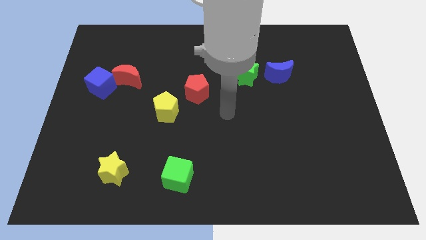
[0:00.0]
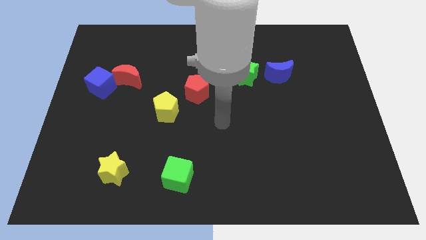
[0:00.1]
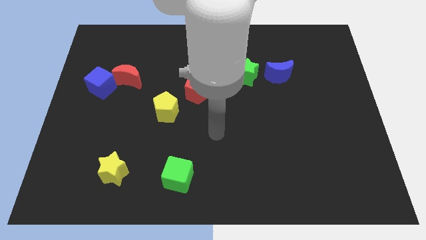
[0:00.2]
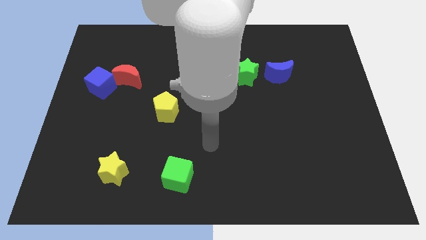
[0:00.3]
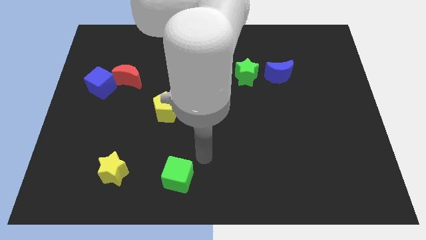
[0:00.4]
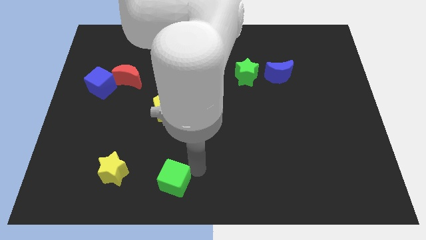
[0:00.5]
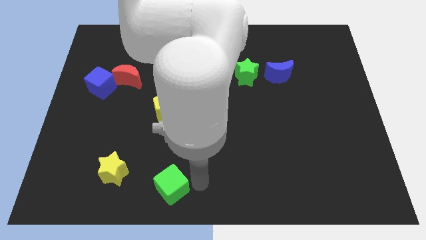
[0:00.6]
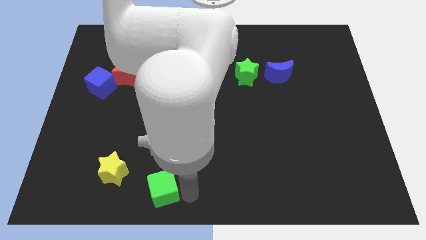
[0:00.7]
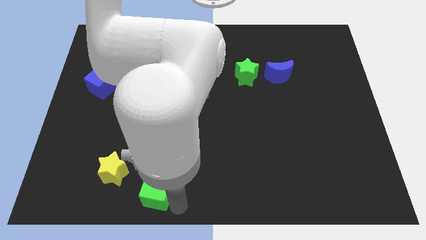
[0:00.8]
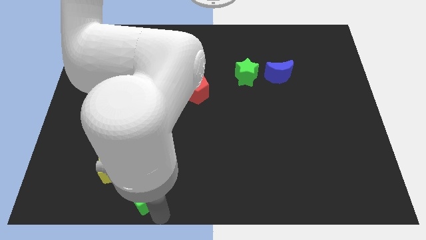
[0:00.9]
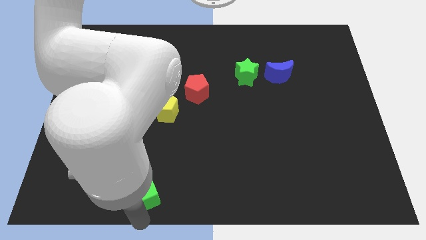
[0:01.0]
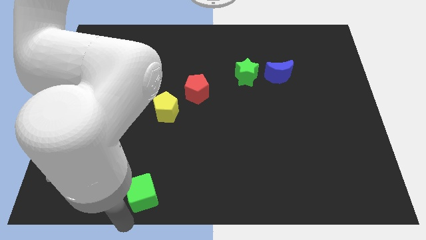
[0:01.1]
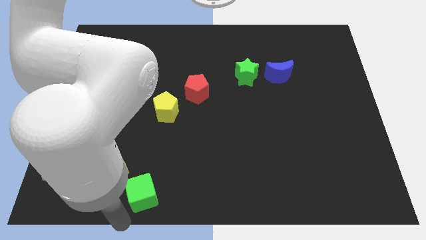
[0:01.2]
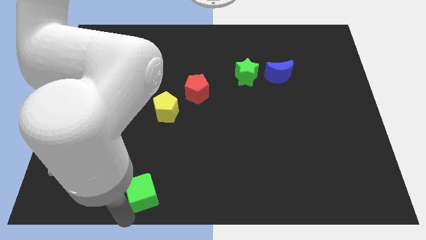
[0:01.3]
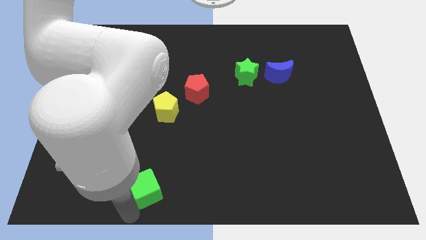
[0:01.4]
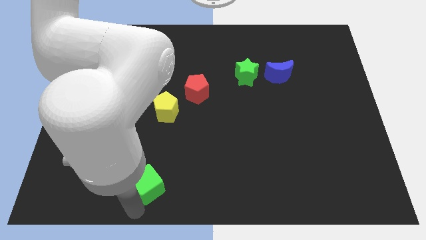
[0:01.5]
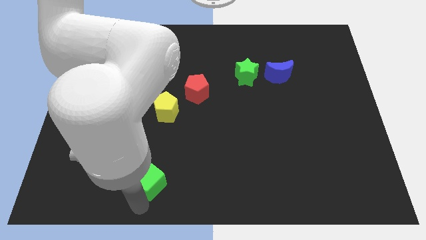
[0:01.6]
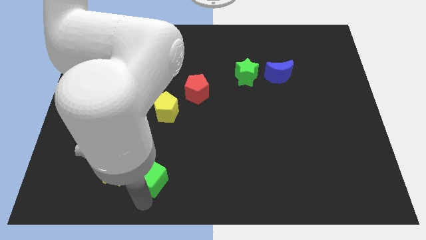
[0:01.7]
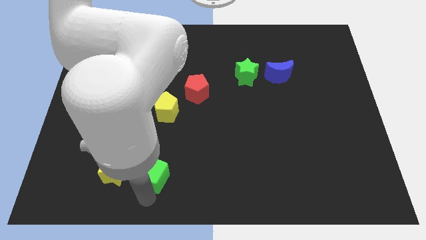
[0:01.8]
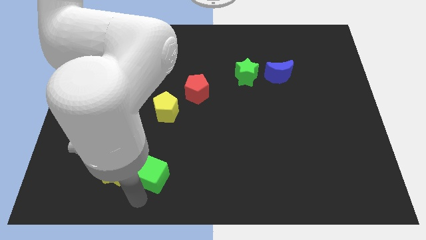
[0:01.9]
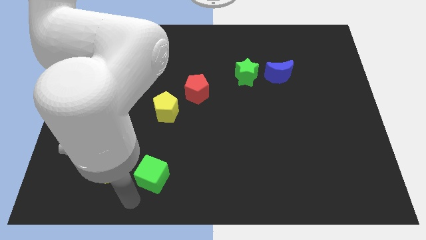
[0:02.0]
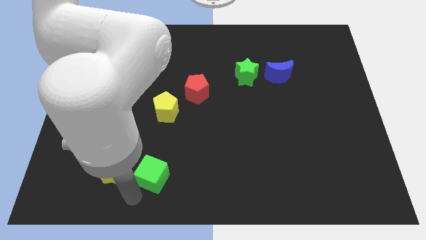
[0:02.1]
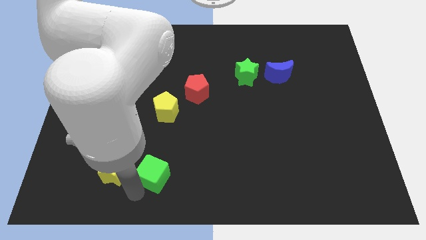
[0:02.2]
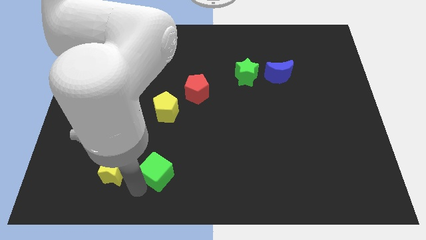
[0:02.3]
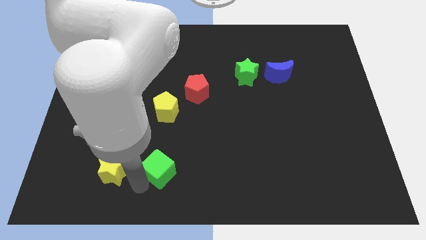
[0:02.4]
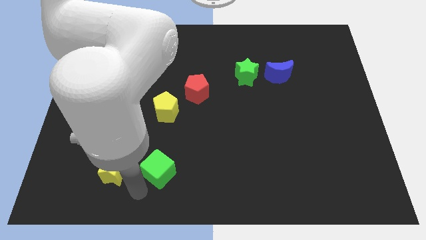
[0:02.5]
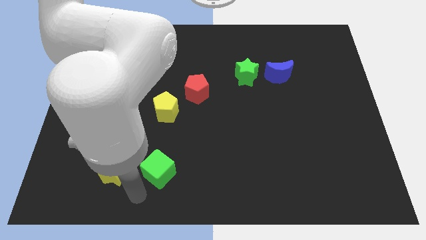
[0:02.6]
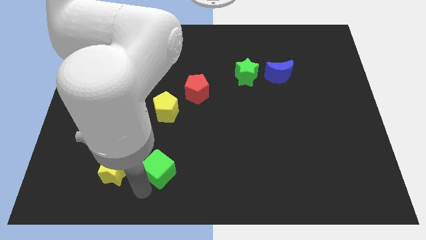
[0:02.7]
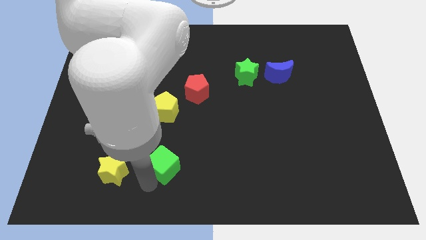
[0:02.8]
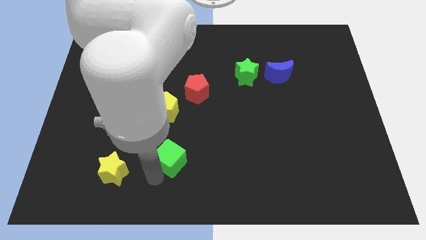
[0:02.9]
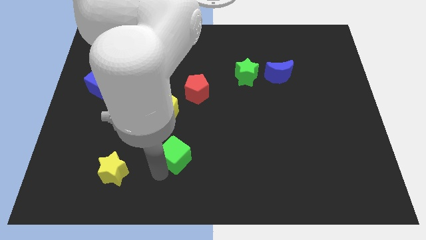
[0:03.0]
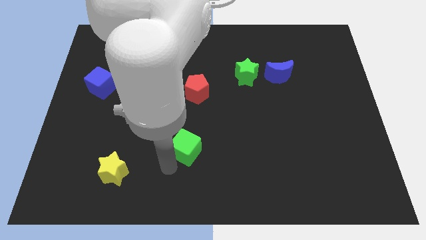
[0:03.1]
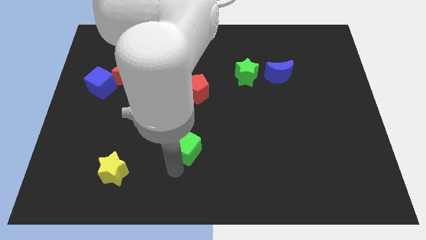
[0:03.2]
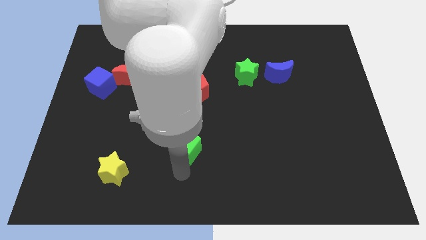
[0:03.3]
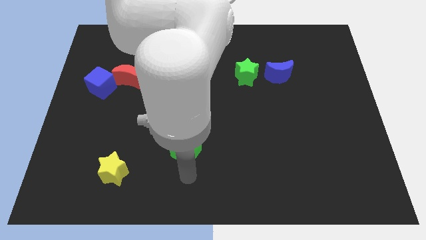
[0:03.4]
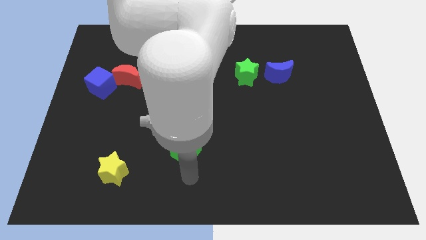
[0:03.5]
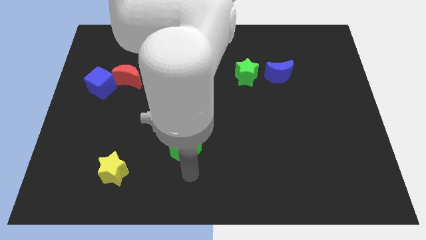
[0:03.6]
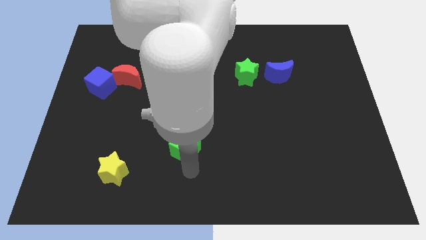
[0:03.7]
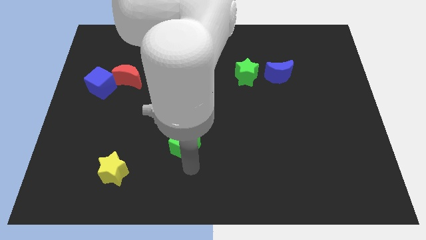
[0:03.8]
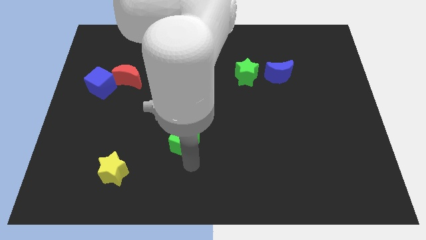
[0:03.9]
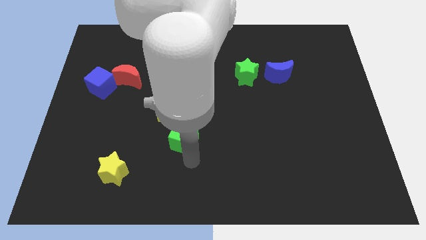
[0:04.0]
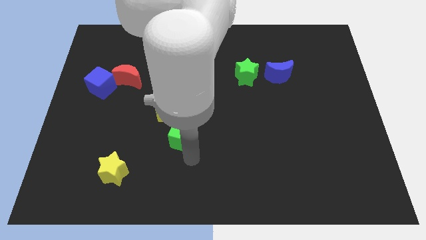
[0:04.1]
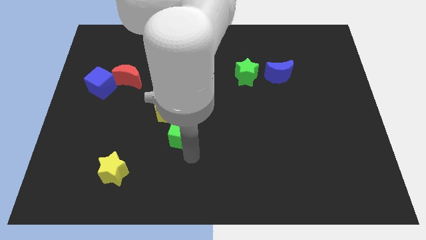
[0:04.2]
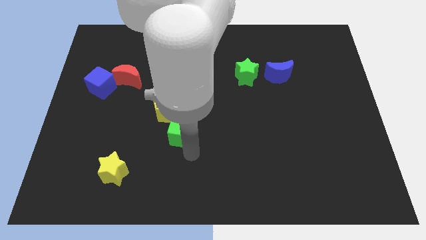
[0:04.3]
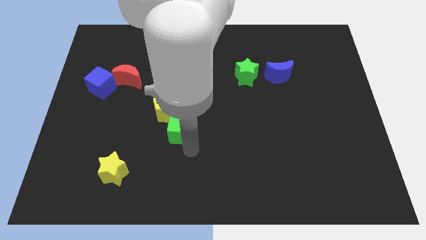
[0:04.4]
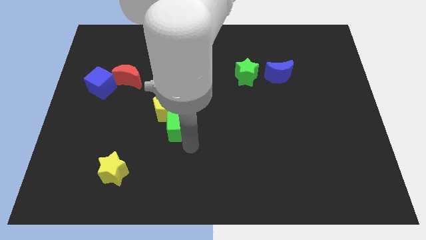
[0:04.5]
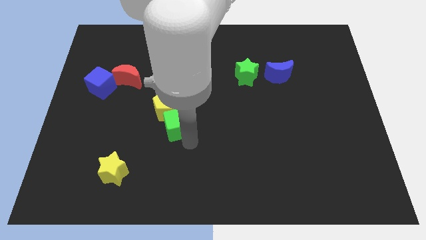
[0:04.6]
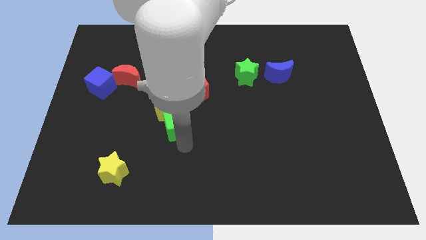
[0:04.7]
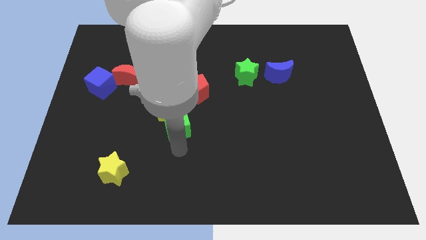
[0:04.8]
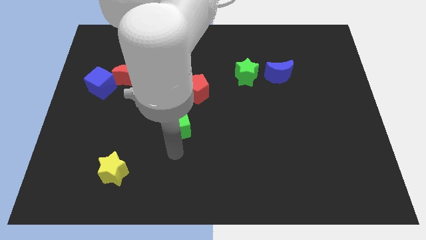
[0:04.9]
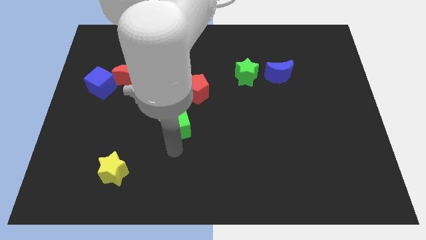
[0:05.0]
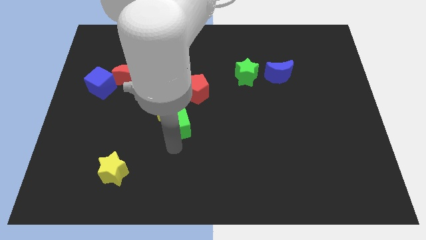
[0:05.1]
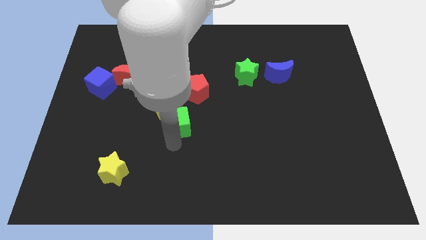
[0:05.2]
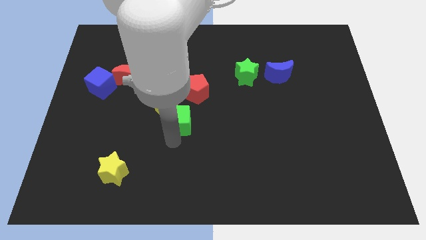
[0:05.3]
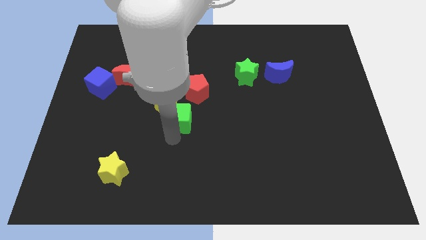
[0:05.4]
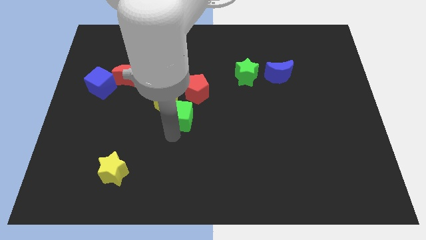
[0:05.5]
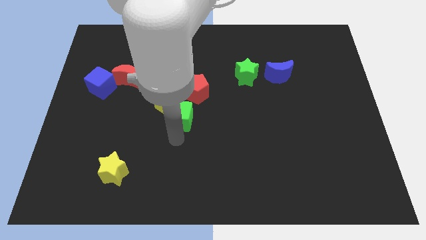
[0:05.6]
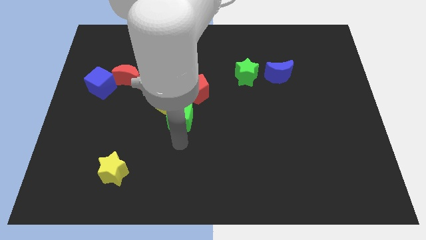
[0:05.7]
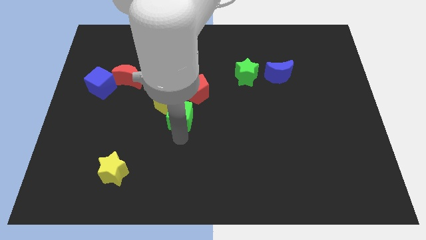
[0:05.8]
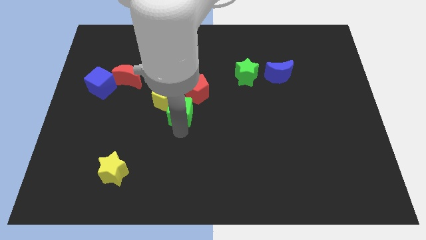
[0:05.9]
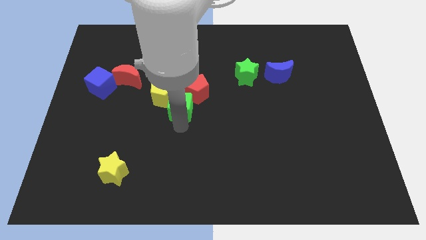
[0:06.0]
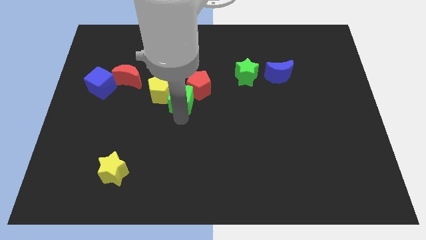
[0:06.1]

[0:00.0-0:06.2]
push the green cube up

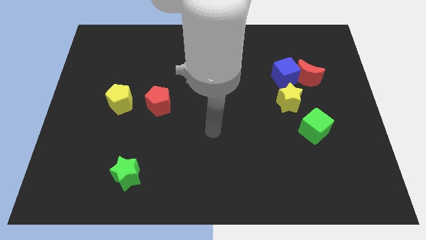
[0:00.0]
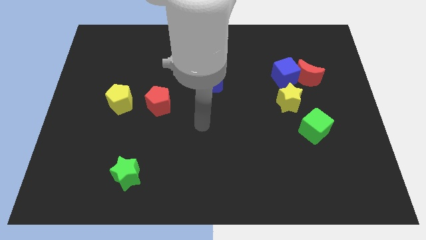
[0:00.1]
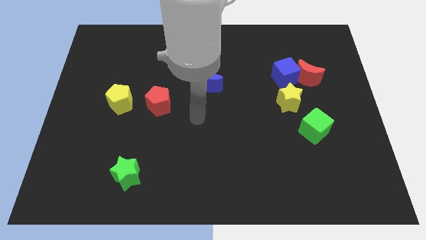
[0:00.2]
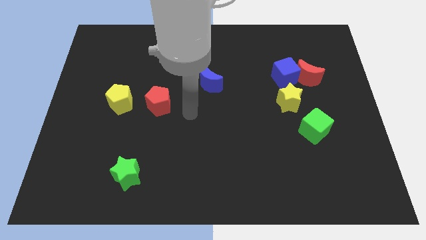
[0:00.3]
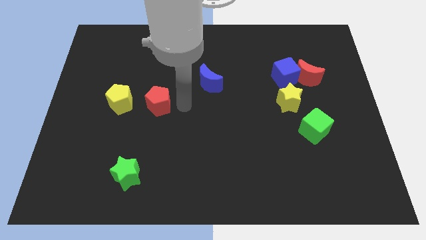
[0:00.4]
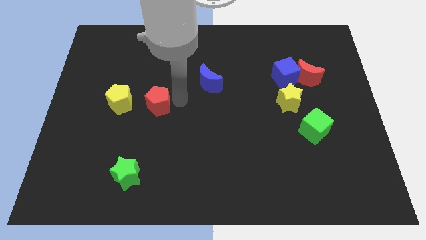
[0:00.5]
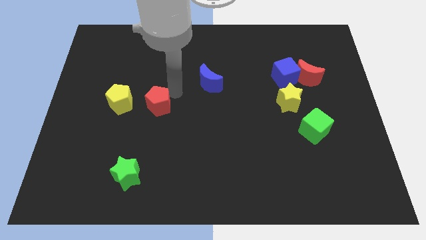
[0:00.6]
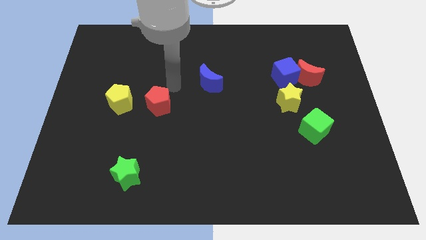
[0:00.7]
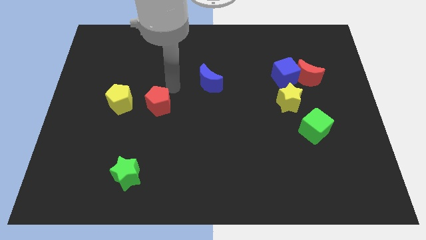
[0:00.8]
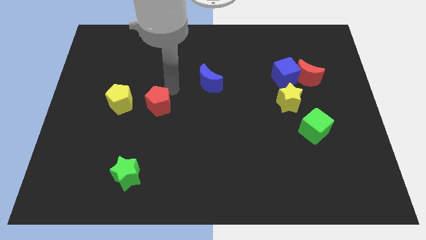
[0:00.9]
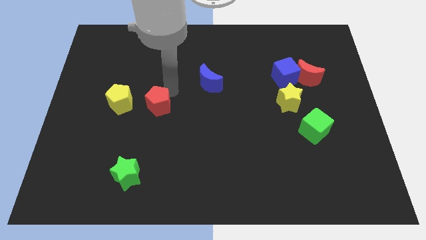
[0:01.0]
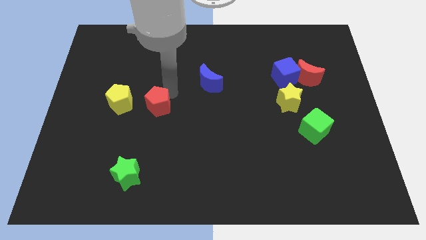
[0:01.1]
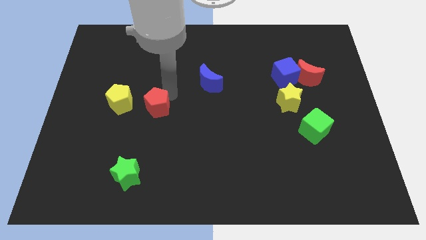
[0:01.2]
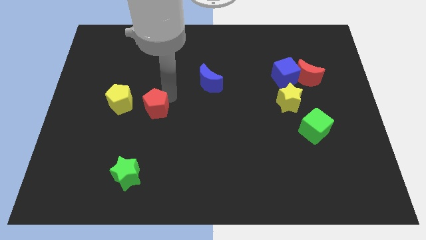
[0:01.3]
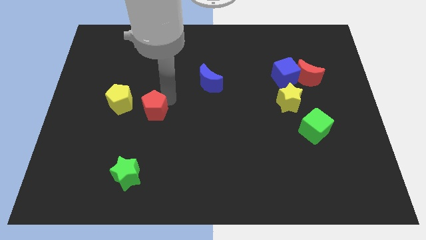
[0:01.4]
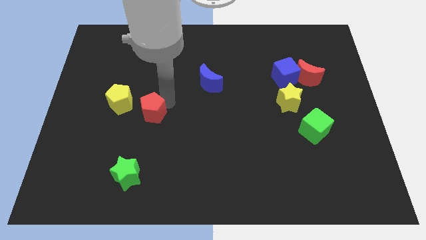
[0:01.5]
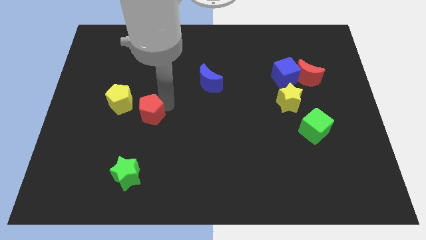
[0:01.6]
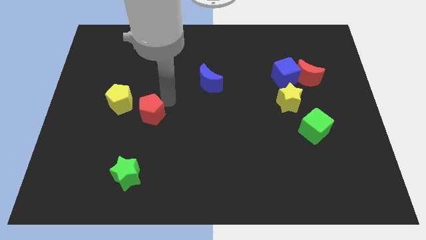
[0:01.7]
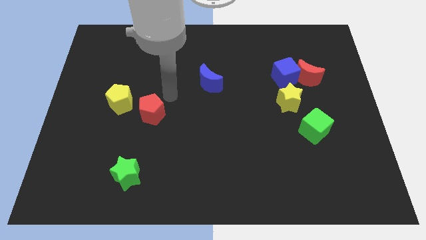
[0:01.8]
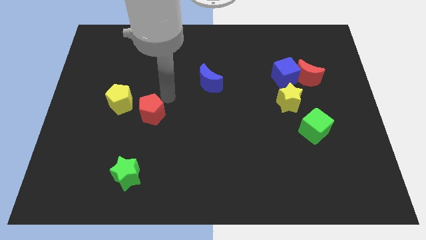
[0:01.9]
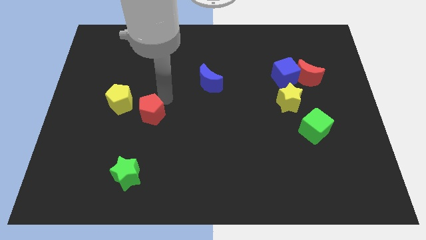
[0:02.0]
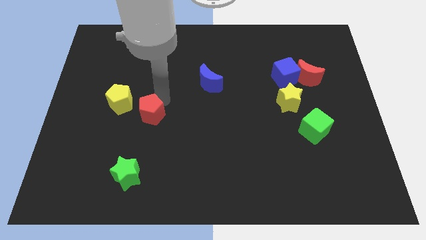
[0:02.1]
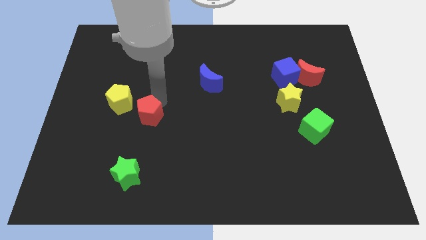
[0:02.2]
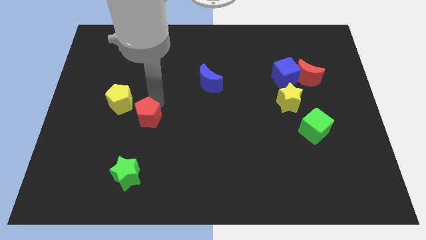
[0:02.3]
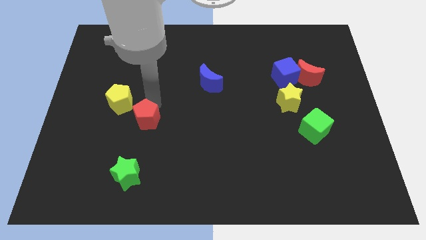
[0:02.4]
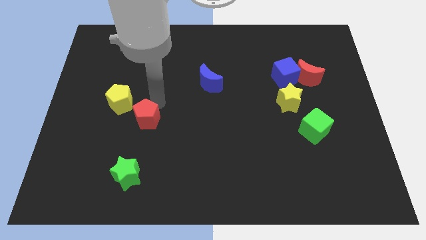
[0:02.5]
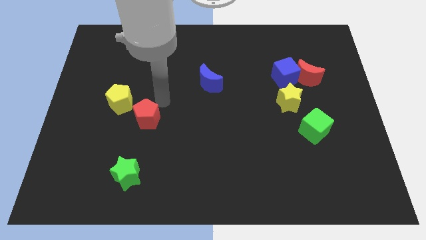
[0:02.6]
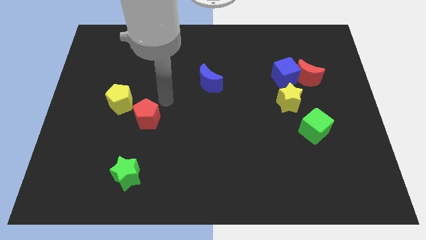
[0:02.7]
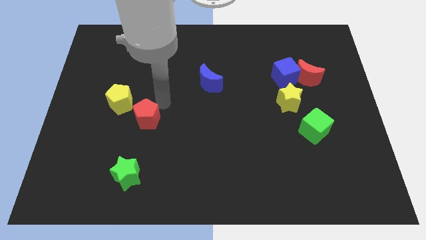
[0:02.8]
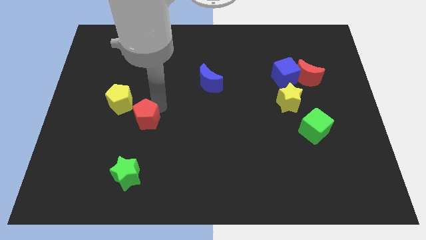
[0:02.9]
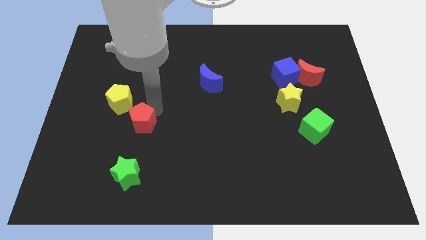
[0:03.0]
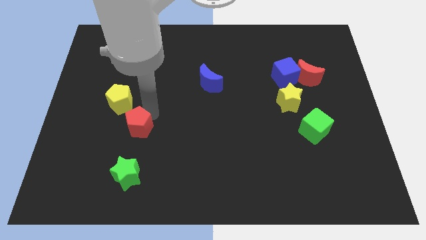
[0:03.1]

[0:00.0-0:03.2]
slightly push the red pentagon diagonally downwards and left
